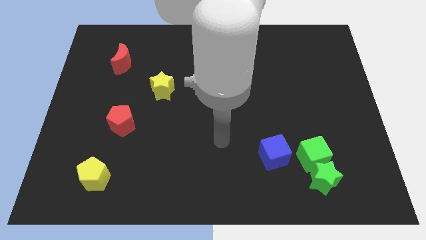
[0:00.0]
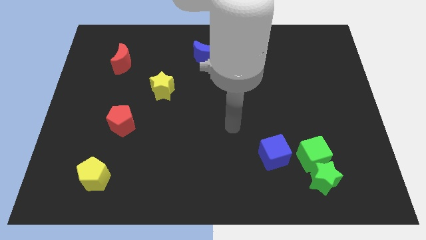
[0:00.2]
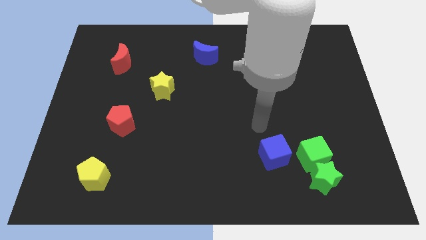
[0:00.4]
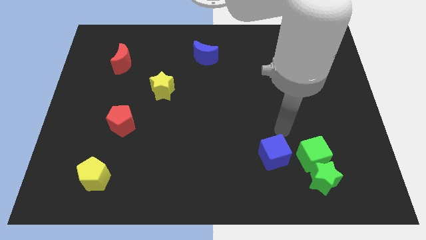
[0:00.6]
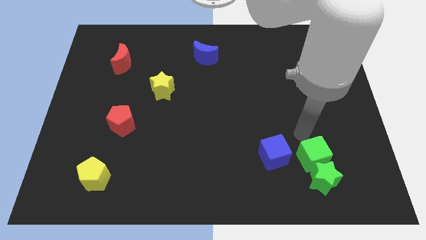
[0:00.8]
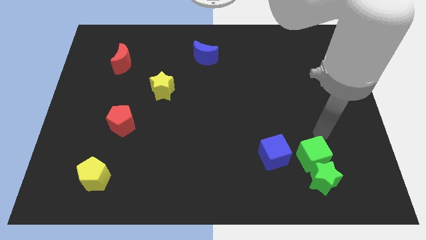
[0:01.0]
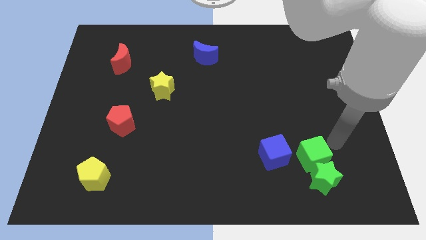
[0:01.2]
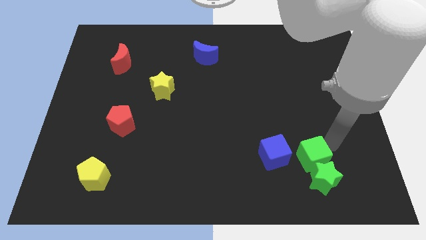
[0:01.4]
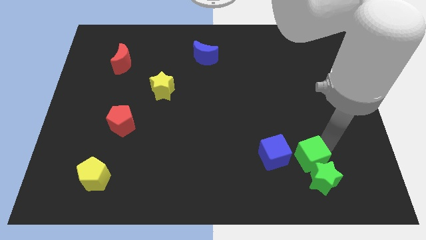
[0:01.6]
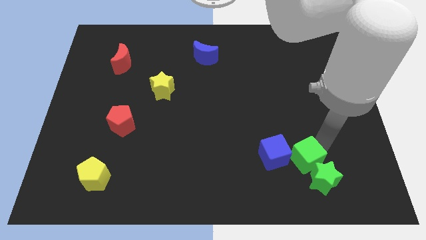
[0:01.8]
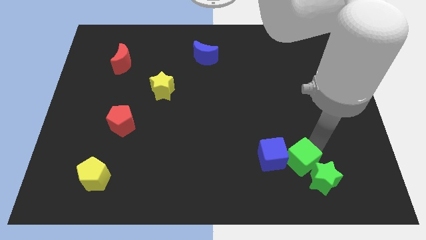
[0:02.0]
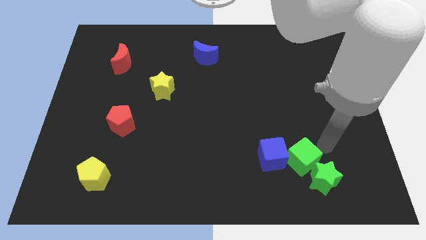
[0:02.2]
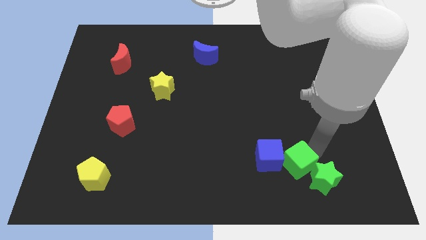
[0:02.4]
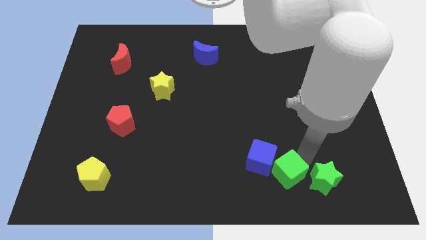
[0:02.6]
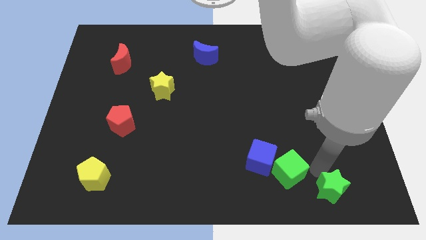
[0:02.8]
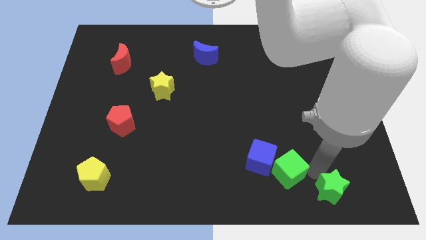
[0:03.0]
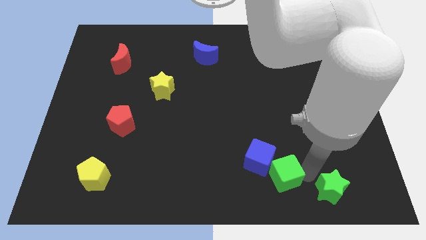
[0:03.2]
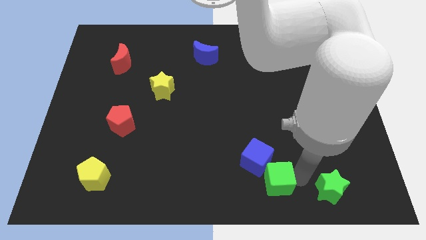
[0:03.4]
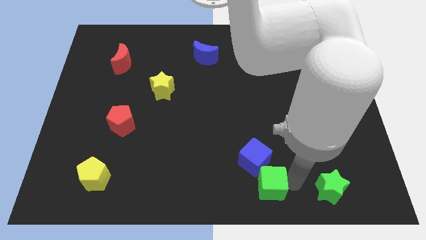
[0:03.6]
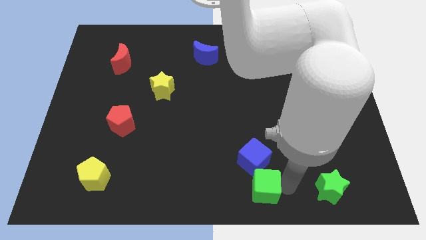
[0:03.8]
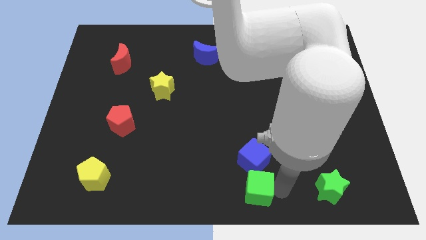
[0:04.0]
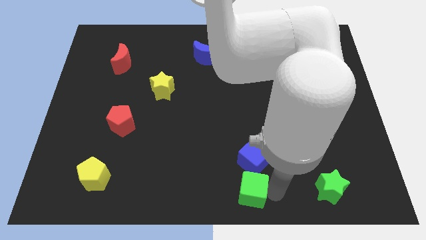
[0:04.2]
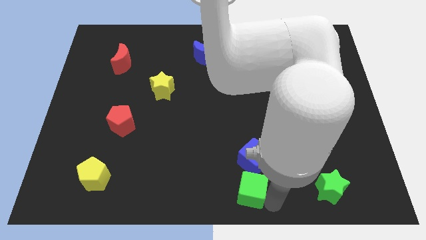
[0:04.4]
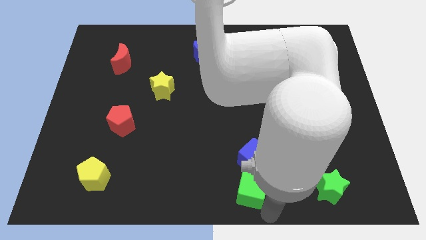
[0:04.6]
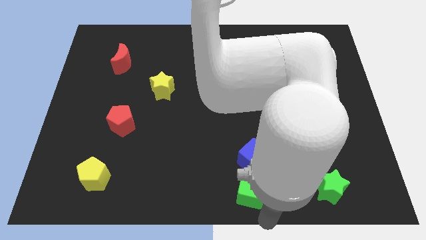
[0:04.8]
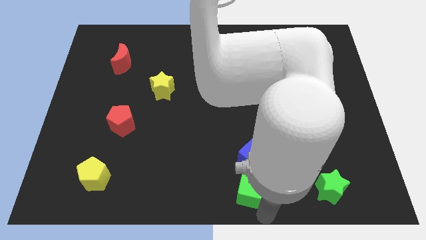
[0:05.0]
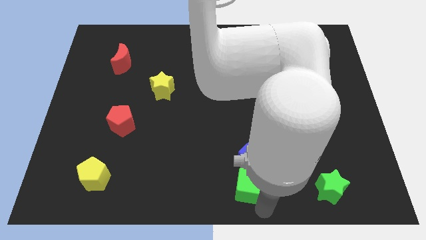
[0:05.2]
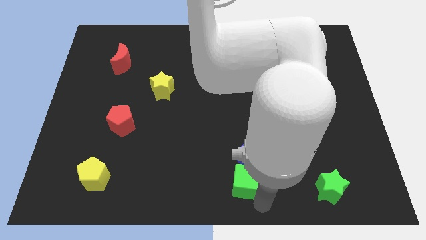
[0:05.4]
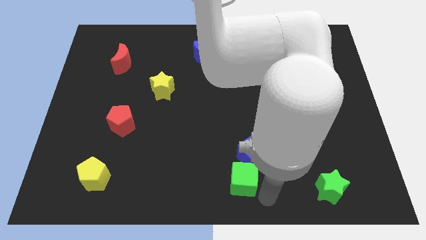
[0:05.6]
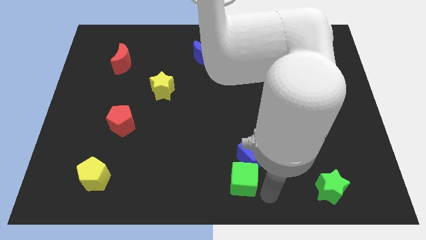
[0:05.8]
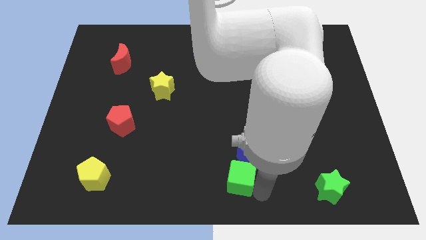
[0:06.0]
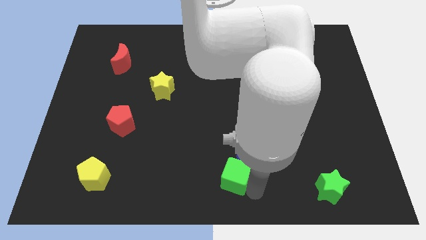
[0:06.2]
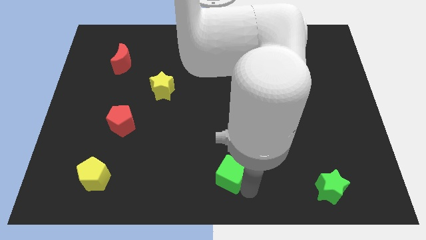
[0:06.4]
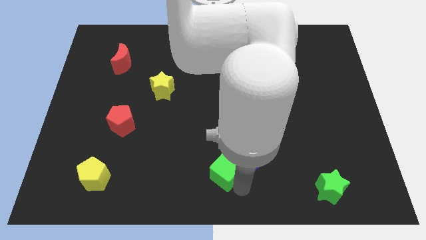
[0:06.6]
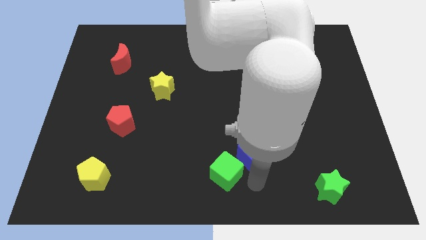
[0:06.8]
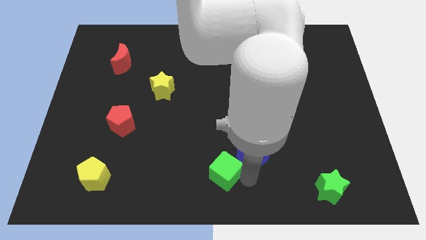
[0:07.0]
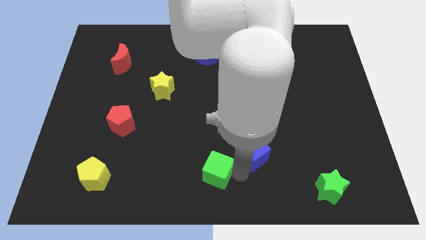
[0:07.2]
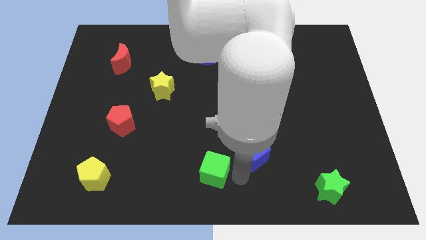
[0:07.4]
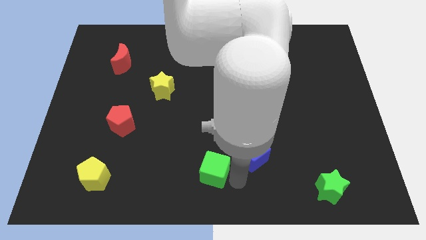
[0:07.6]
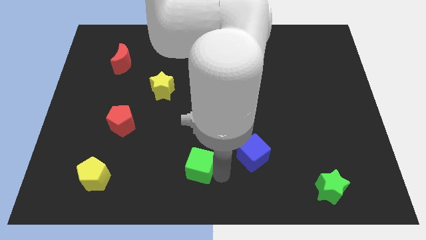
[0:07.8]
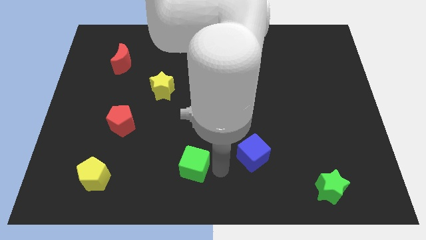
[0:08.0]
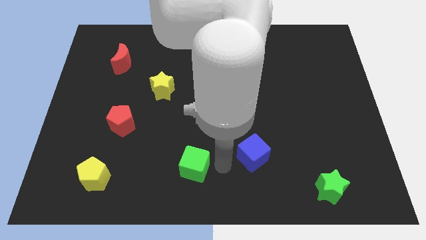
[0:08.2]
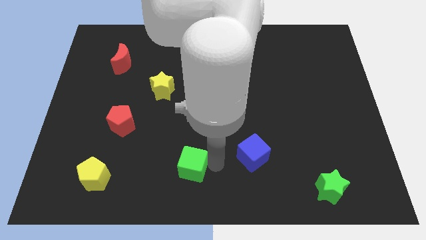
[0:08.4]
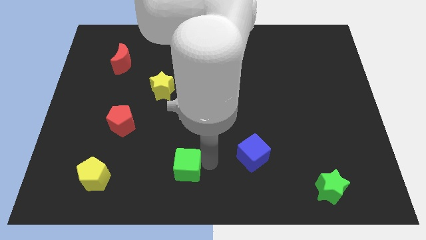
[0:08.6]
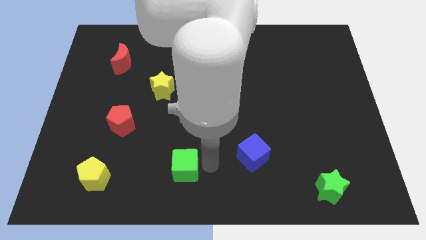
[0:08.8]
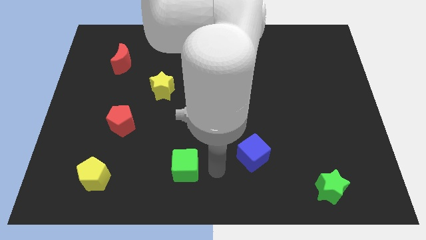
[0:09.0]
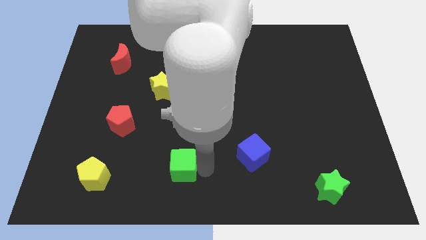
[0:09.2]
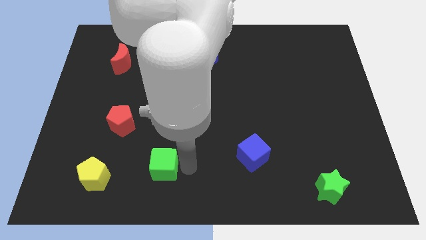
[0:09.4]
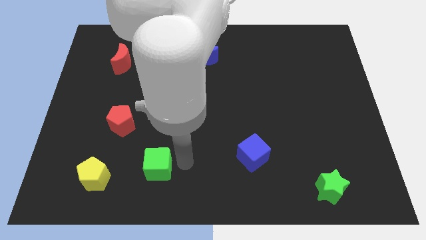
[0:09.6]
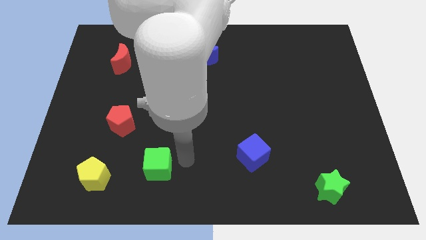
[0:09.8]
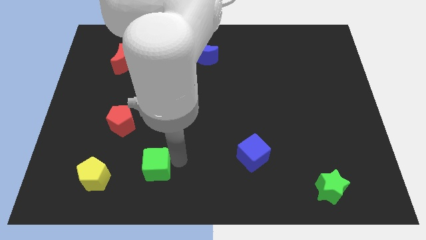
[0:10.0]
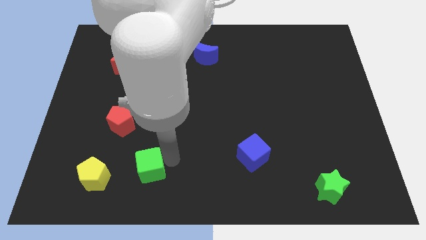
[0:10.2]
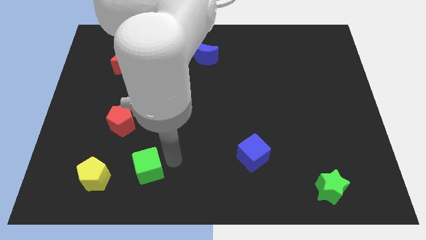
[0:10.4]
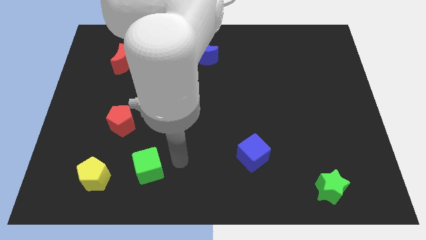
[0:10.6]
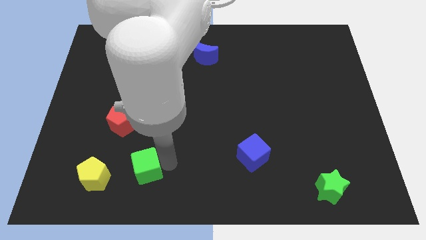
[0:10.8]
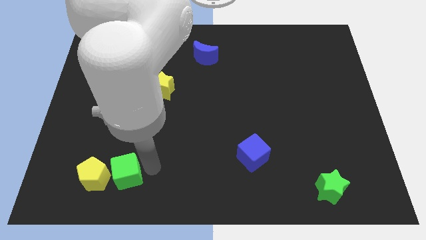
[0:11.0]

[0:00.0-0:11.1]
push the green cube to the yellow pentagon

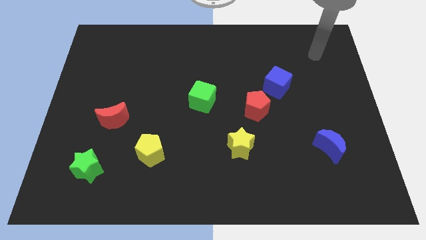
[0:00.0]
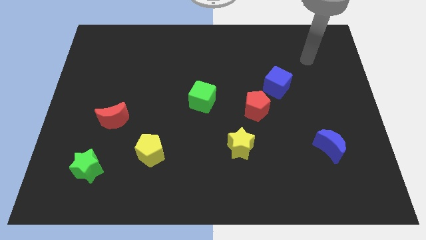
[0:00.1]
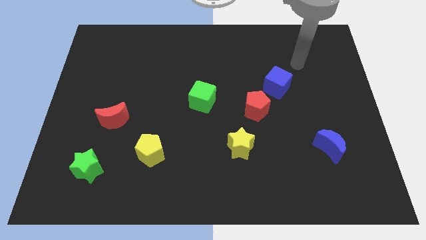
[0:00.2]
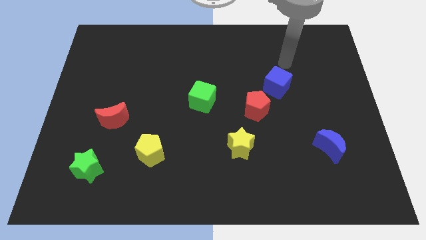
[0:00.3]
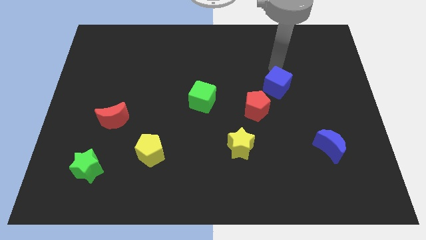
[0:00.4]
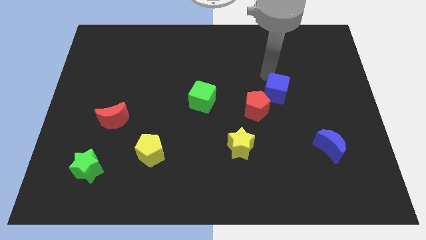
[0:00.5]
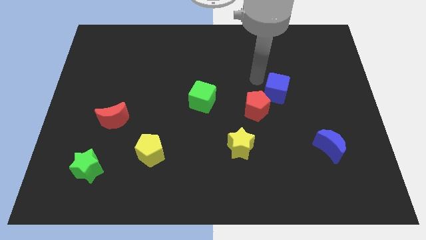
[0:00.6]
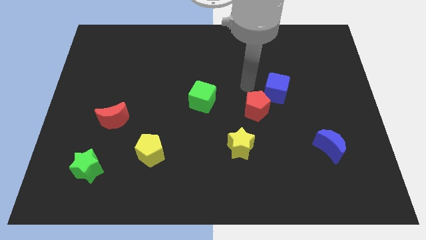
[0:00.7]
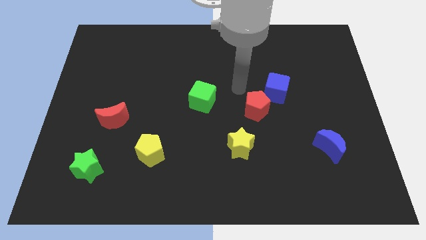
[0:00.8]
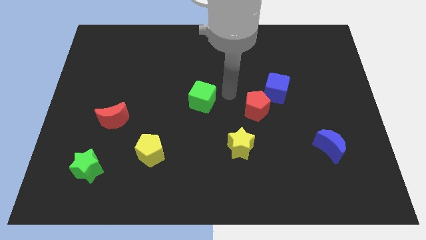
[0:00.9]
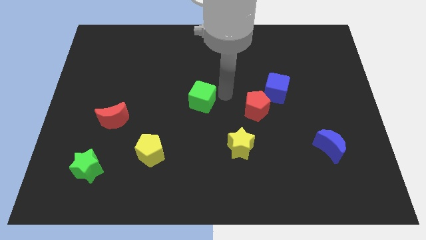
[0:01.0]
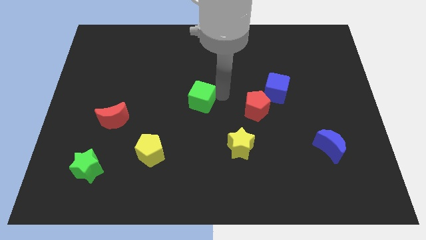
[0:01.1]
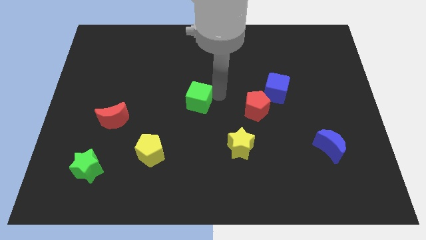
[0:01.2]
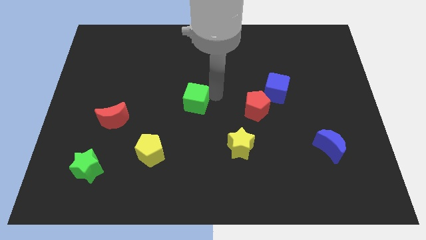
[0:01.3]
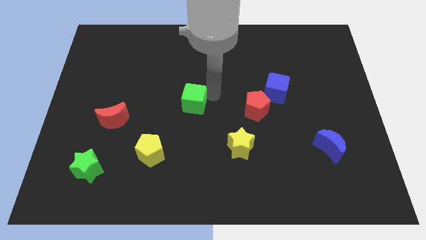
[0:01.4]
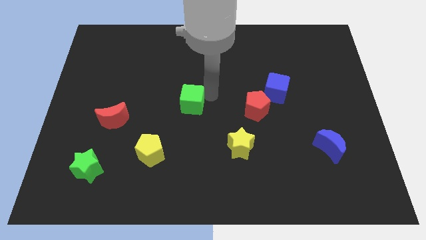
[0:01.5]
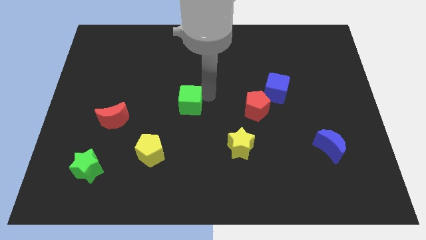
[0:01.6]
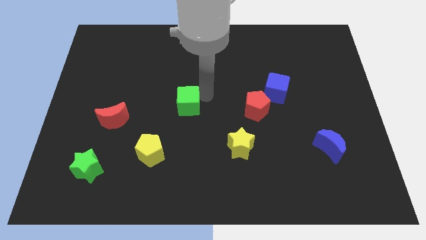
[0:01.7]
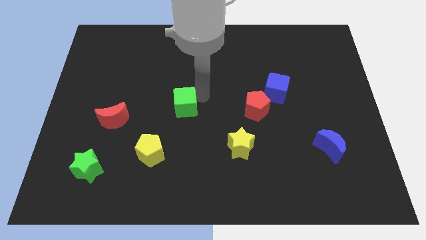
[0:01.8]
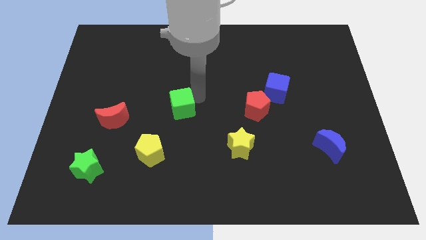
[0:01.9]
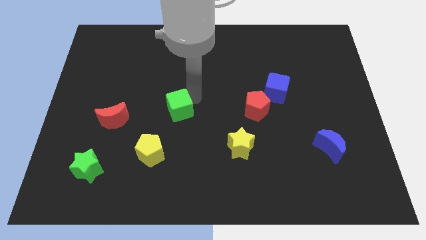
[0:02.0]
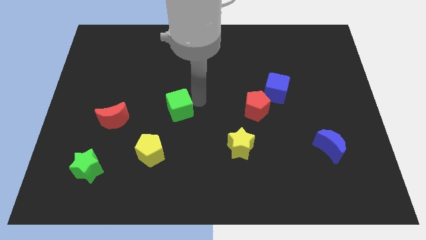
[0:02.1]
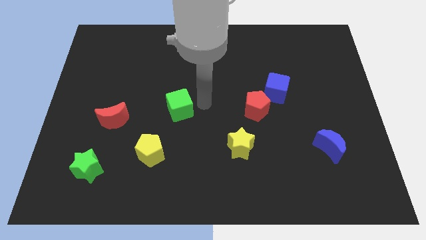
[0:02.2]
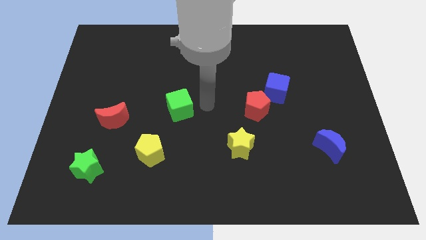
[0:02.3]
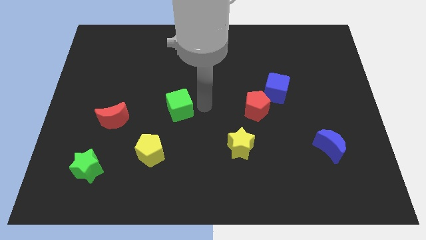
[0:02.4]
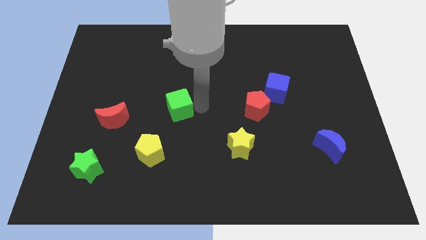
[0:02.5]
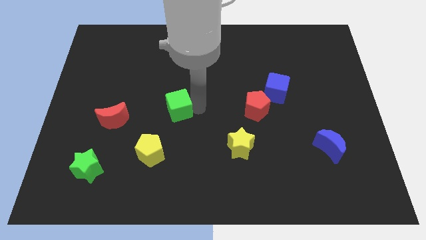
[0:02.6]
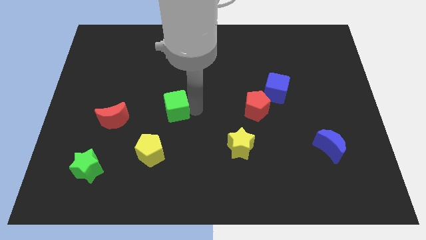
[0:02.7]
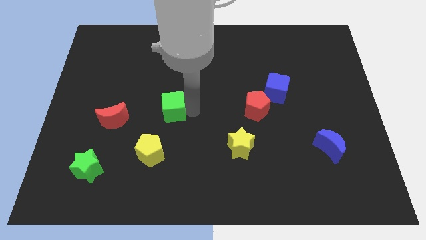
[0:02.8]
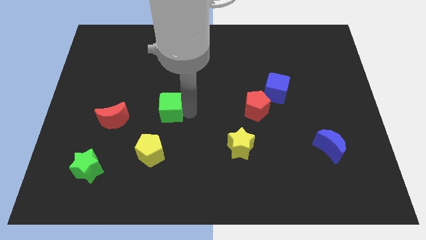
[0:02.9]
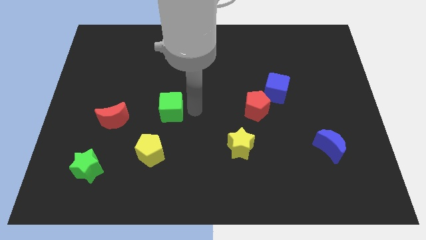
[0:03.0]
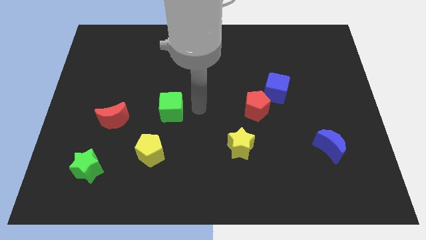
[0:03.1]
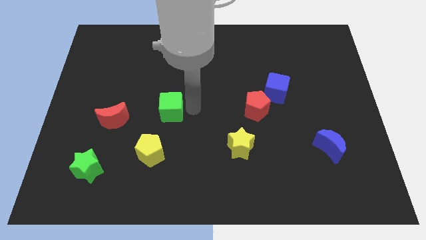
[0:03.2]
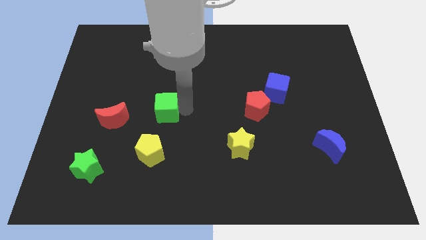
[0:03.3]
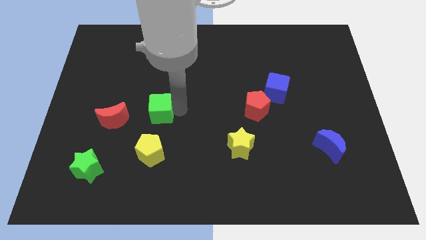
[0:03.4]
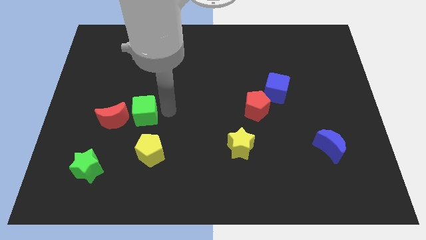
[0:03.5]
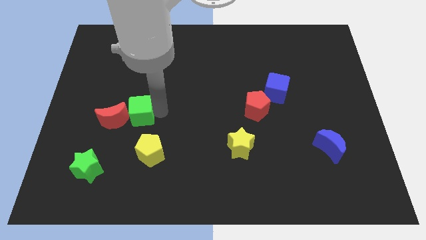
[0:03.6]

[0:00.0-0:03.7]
slide the green cube to the red moon
